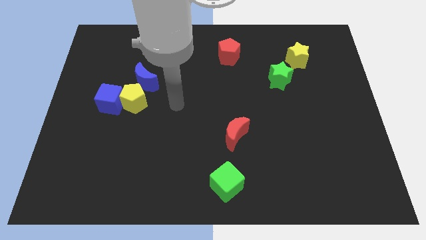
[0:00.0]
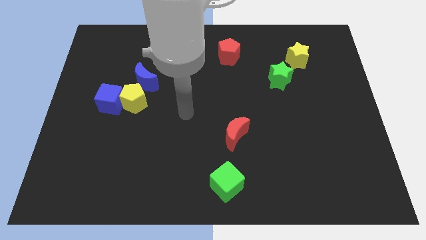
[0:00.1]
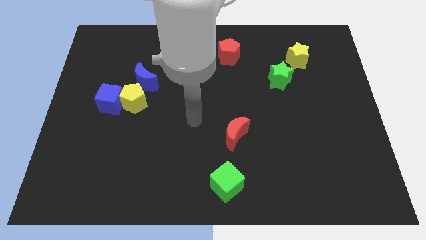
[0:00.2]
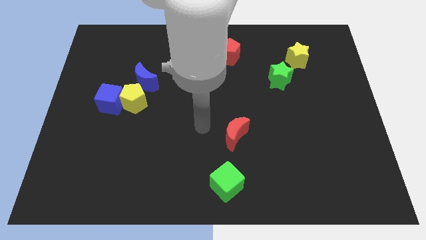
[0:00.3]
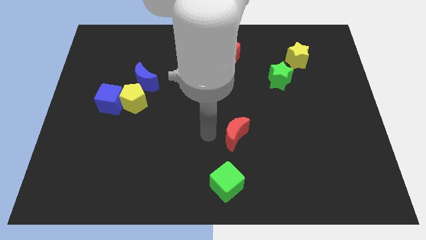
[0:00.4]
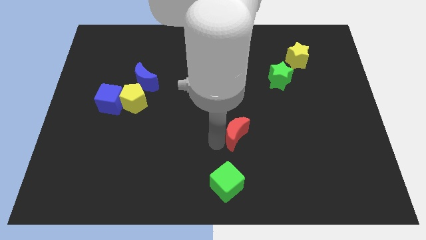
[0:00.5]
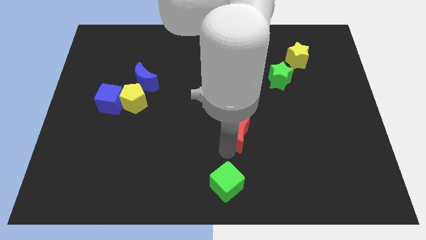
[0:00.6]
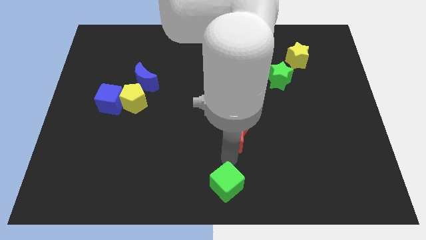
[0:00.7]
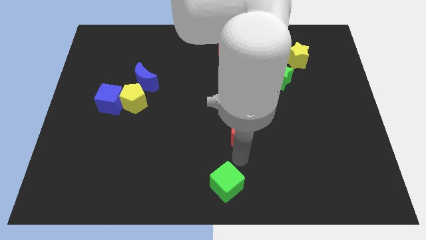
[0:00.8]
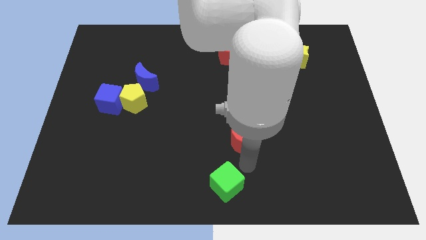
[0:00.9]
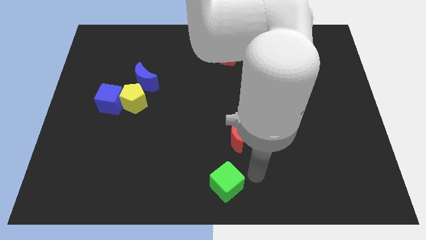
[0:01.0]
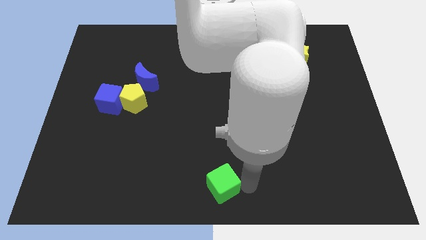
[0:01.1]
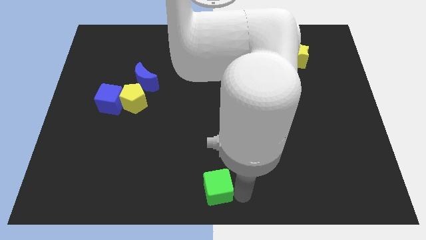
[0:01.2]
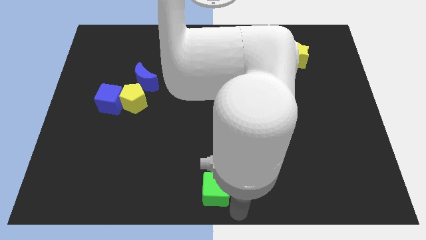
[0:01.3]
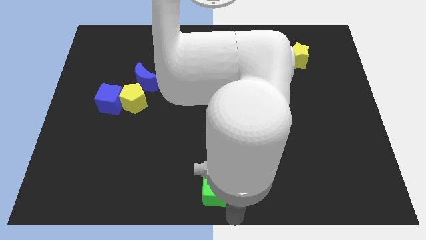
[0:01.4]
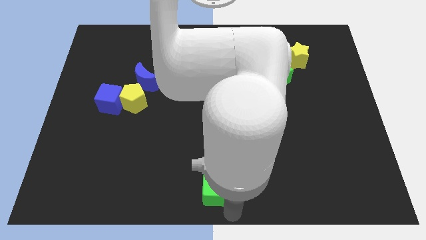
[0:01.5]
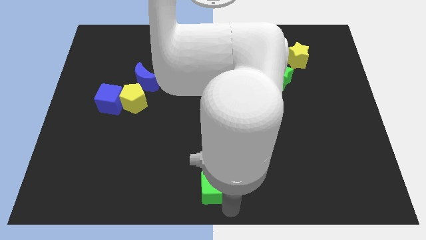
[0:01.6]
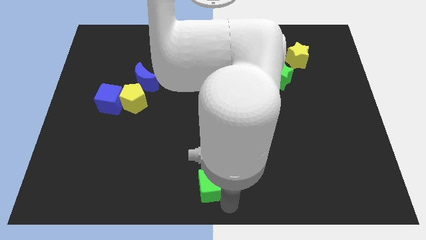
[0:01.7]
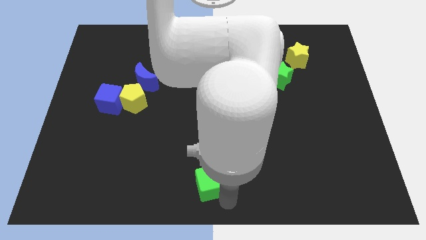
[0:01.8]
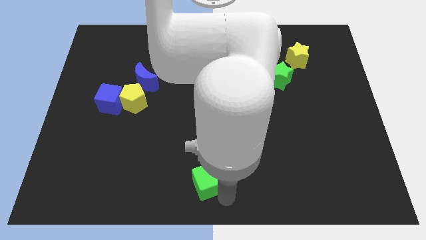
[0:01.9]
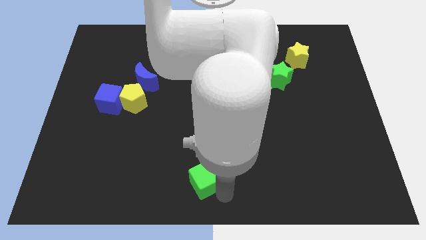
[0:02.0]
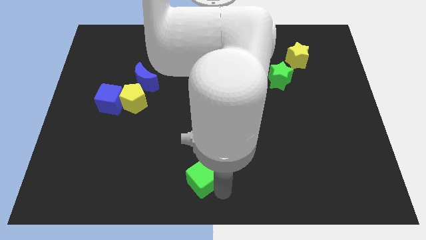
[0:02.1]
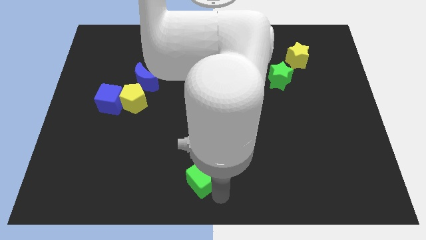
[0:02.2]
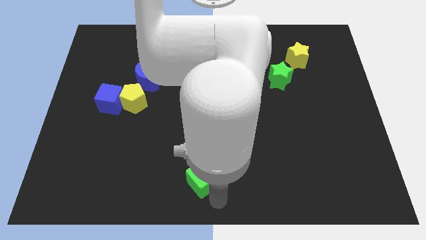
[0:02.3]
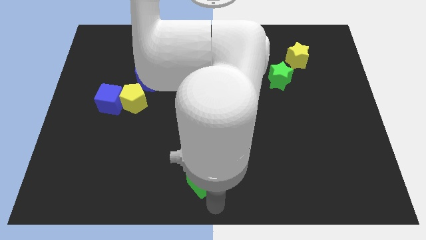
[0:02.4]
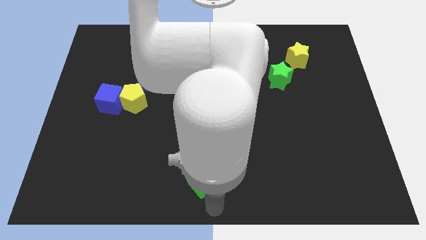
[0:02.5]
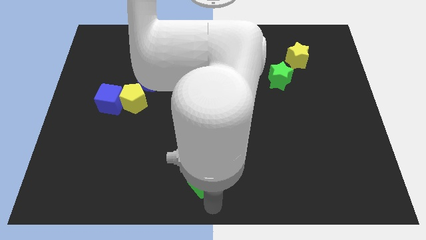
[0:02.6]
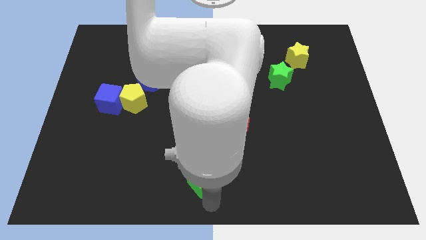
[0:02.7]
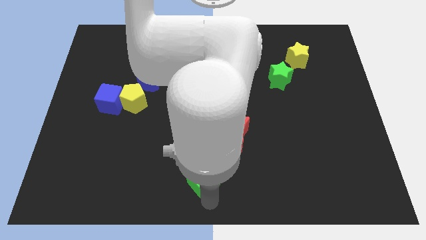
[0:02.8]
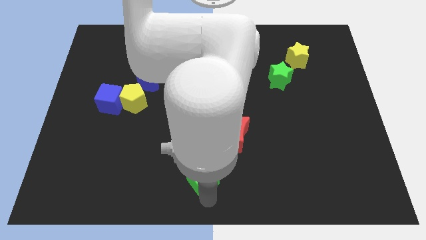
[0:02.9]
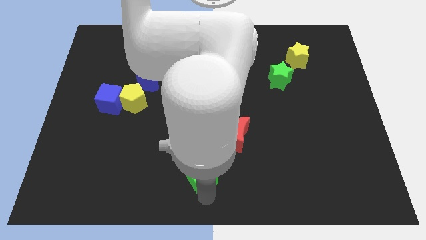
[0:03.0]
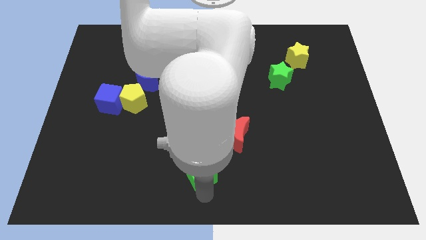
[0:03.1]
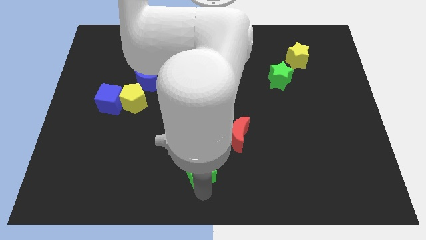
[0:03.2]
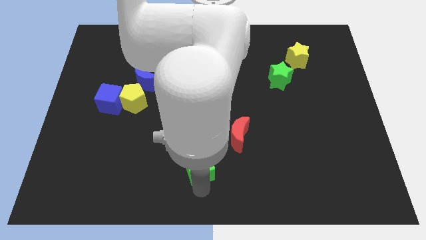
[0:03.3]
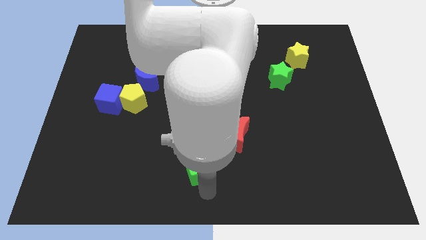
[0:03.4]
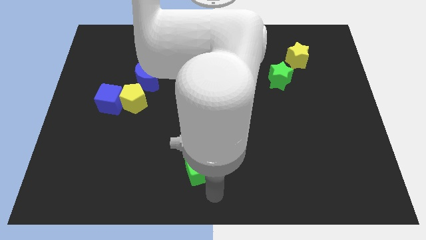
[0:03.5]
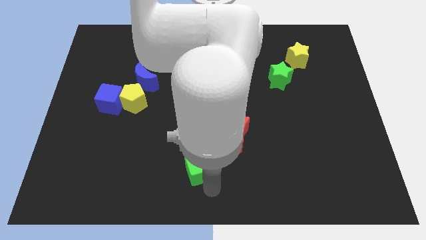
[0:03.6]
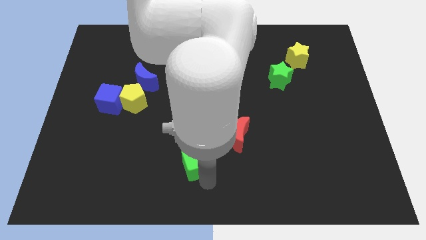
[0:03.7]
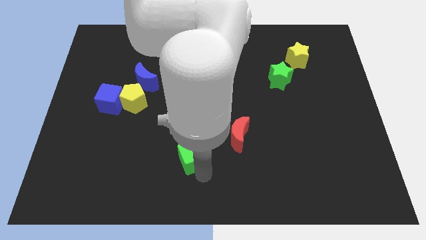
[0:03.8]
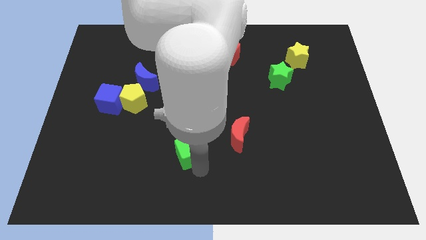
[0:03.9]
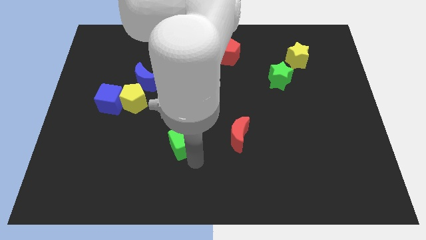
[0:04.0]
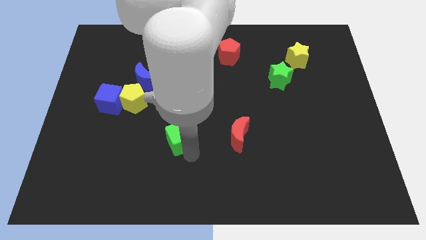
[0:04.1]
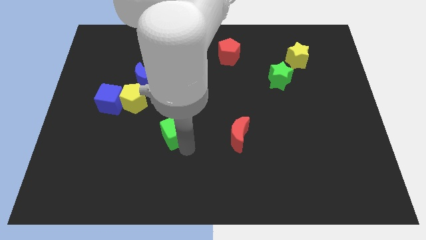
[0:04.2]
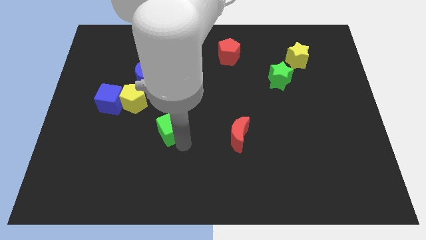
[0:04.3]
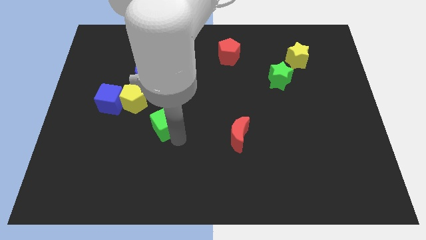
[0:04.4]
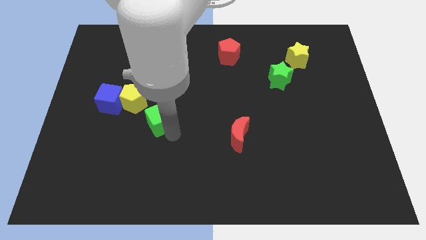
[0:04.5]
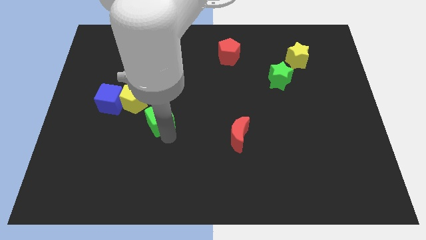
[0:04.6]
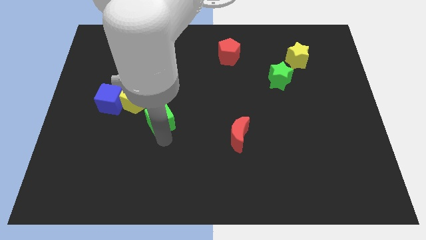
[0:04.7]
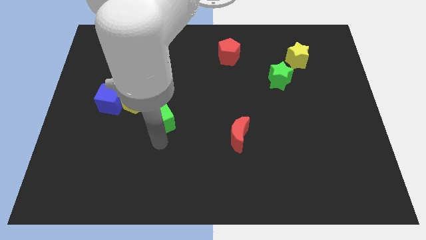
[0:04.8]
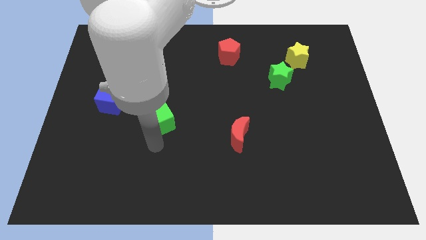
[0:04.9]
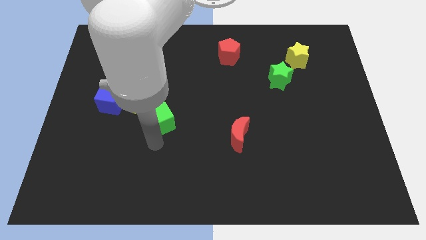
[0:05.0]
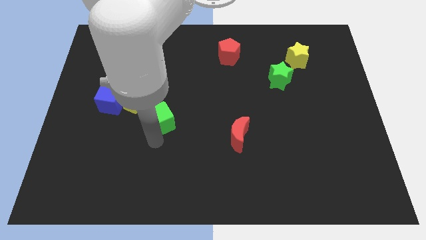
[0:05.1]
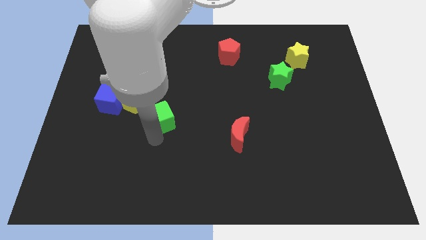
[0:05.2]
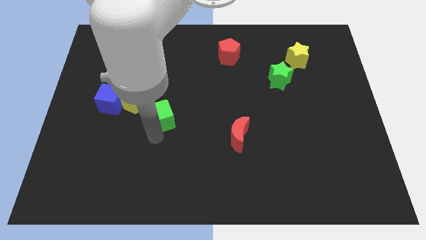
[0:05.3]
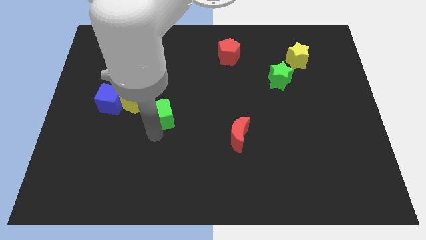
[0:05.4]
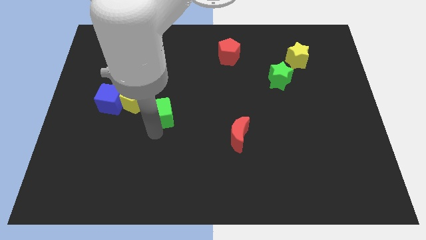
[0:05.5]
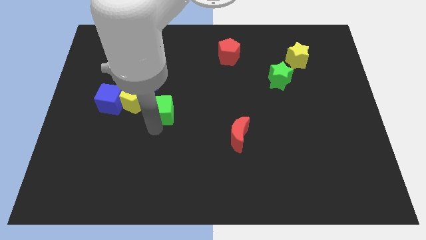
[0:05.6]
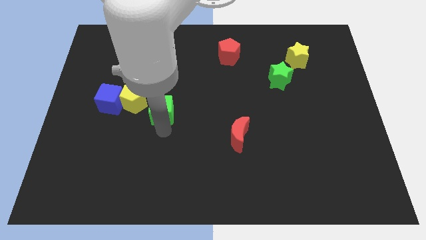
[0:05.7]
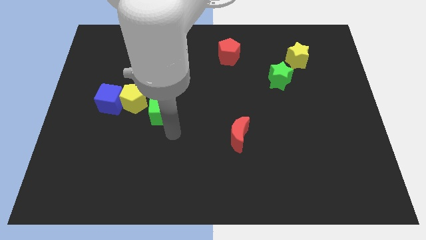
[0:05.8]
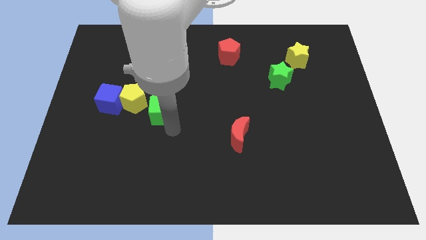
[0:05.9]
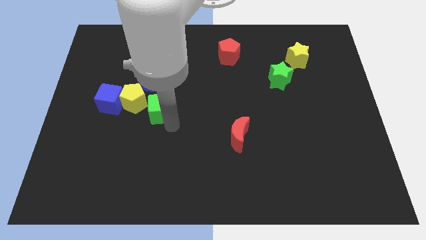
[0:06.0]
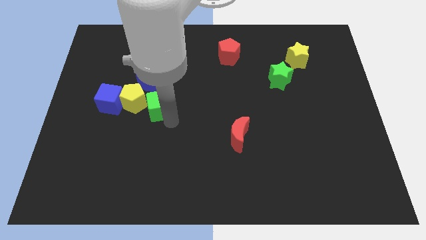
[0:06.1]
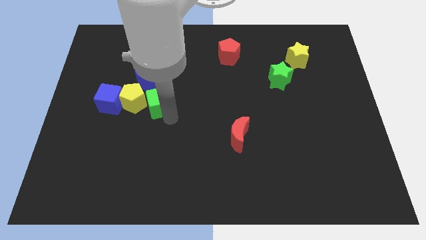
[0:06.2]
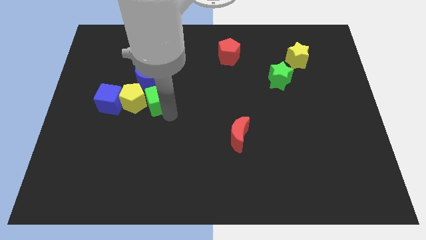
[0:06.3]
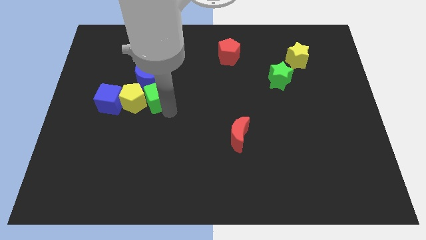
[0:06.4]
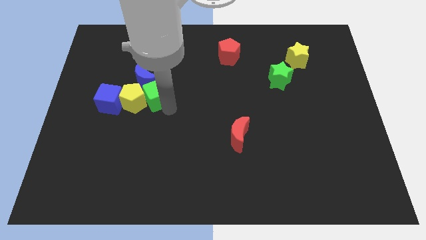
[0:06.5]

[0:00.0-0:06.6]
slide the green cube towards the blue moon

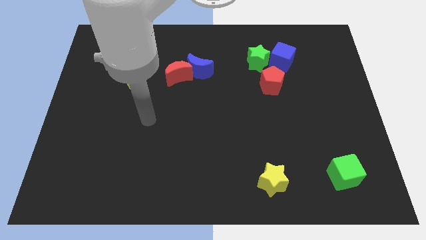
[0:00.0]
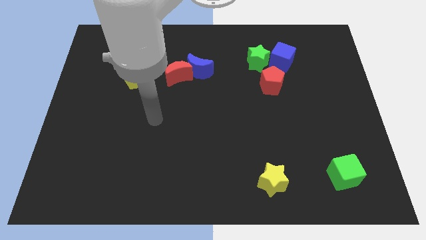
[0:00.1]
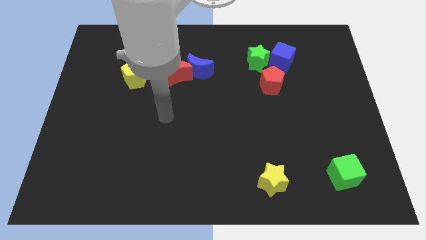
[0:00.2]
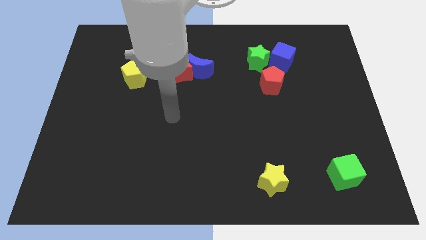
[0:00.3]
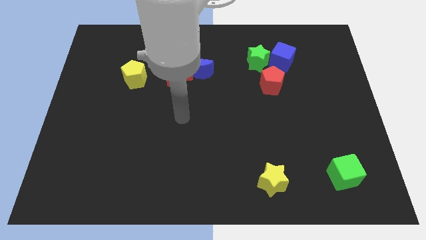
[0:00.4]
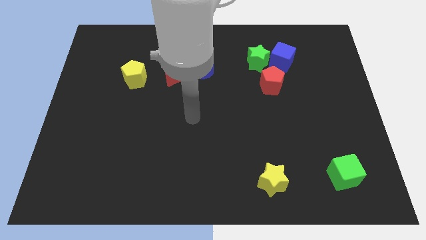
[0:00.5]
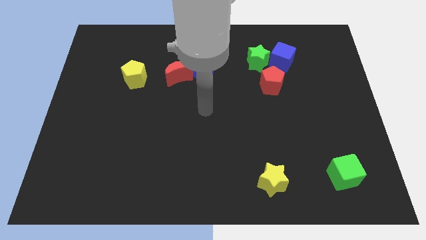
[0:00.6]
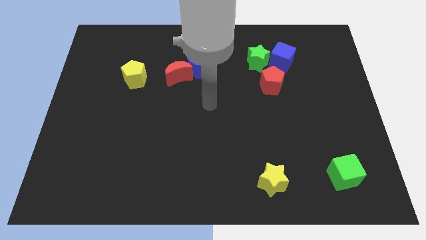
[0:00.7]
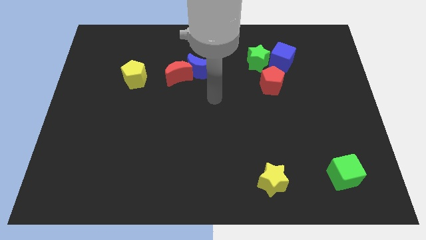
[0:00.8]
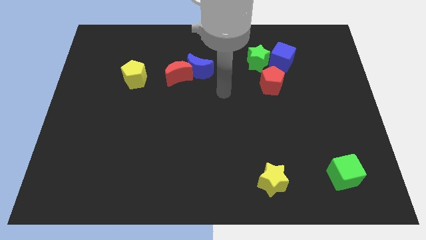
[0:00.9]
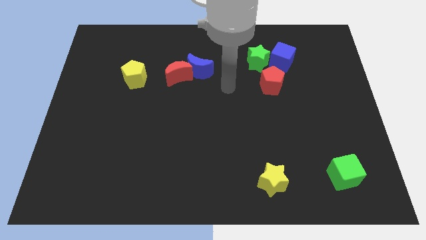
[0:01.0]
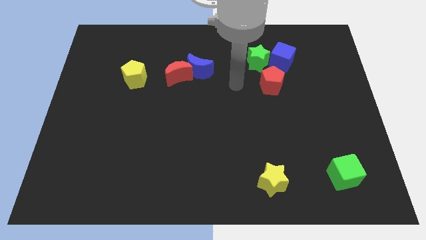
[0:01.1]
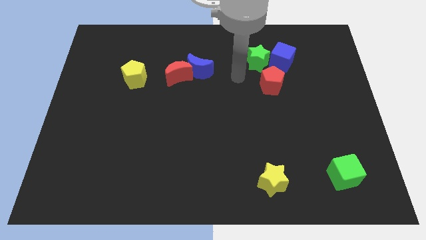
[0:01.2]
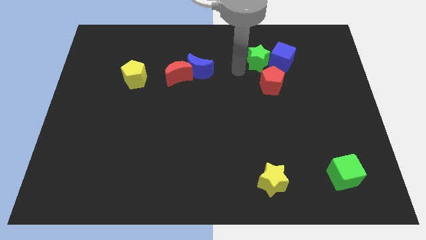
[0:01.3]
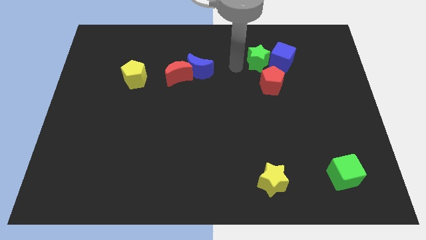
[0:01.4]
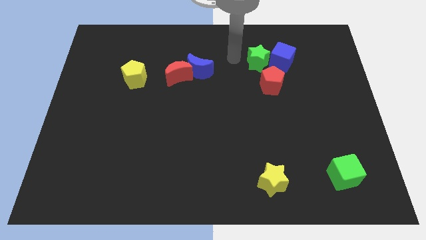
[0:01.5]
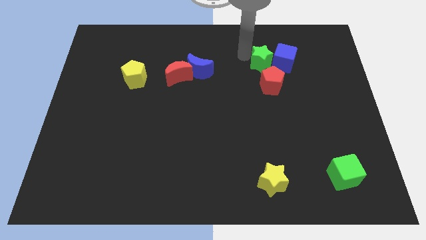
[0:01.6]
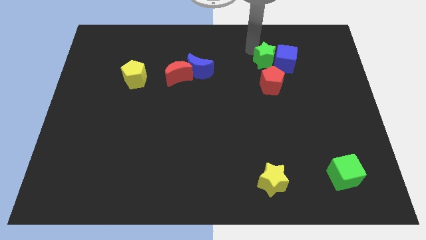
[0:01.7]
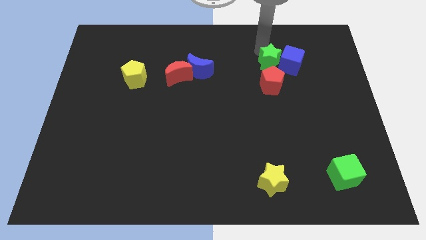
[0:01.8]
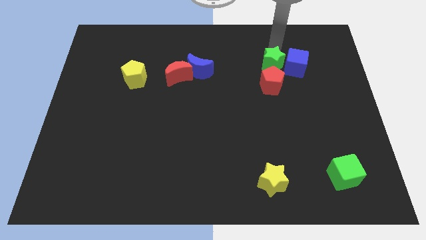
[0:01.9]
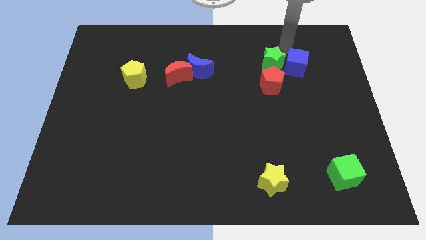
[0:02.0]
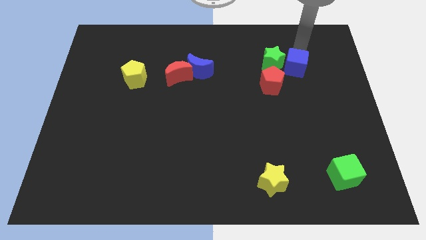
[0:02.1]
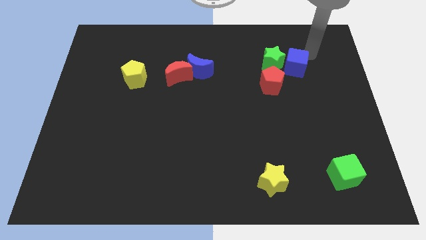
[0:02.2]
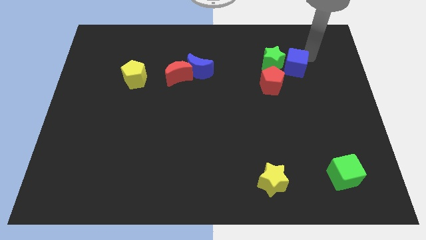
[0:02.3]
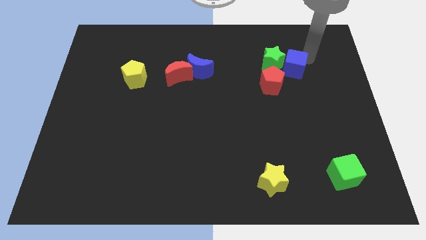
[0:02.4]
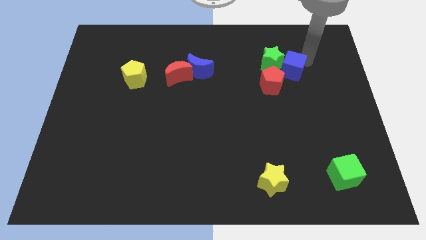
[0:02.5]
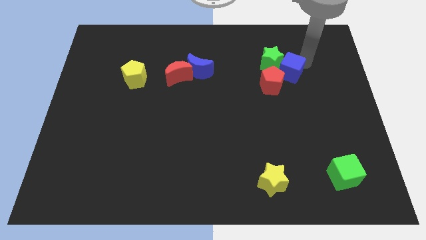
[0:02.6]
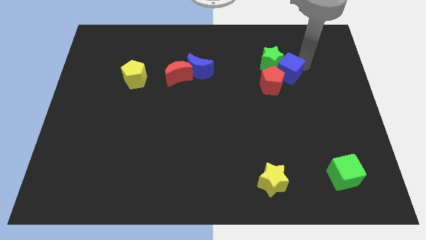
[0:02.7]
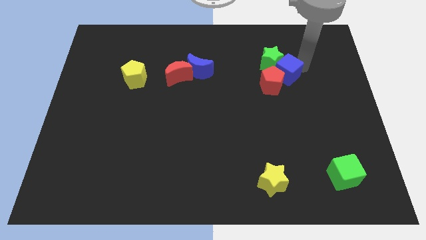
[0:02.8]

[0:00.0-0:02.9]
move the blue cube towards the red pentagon
